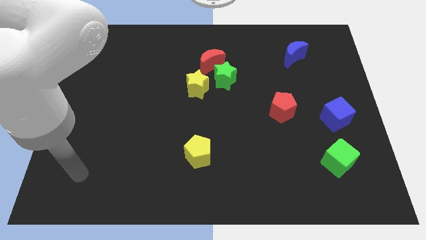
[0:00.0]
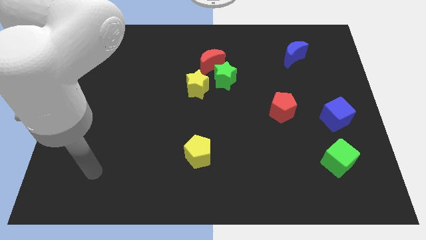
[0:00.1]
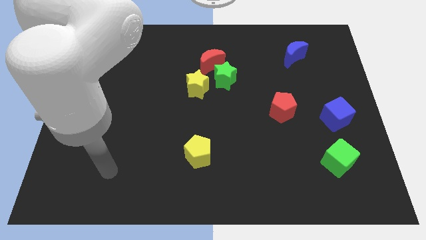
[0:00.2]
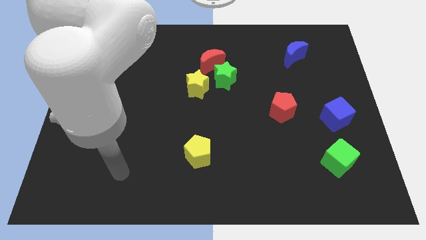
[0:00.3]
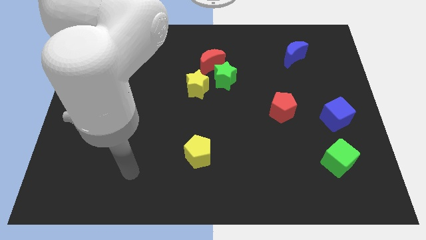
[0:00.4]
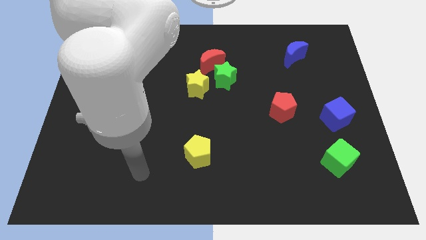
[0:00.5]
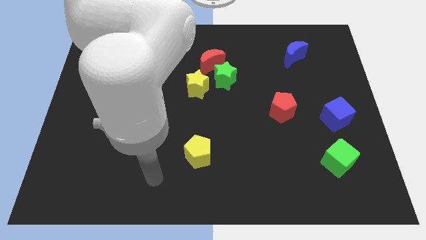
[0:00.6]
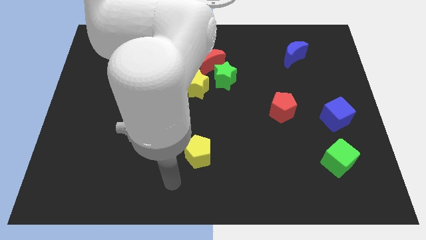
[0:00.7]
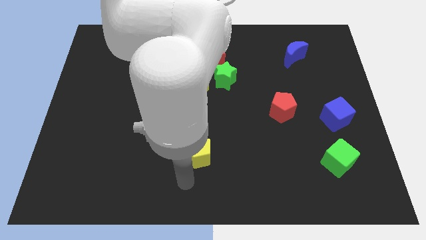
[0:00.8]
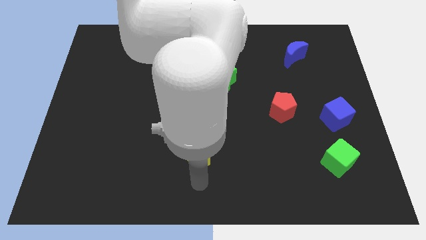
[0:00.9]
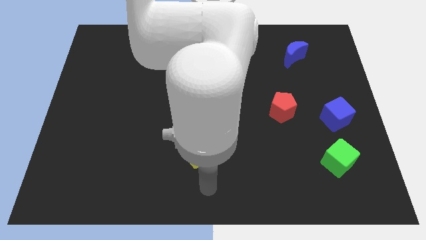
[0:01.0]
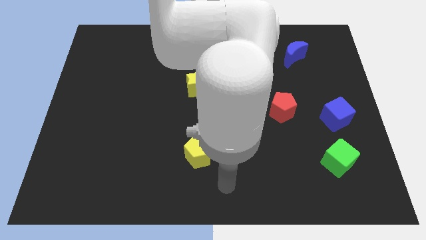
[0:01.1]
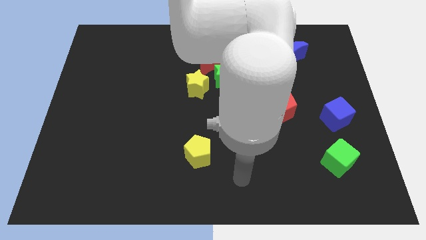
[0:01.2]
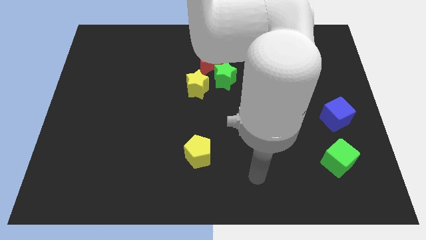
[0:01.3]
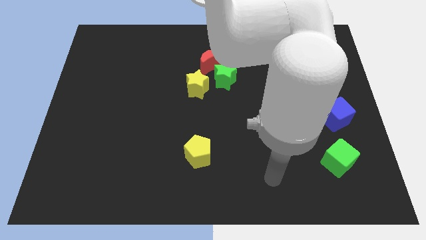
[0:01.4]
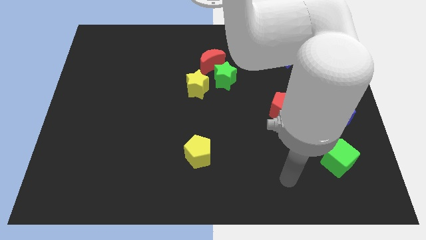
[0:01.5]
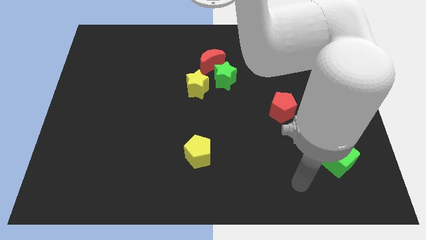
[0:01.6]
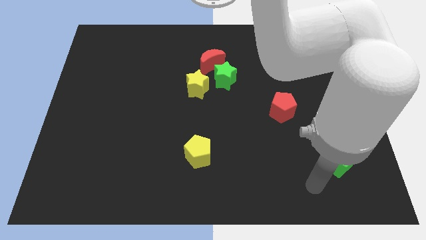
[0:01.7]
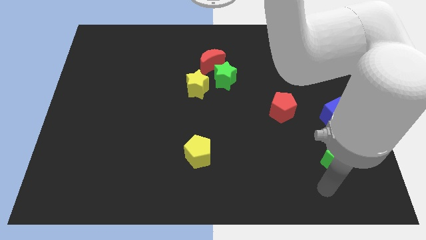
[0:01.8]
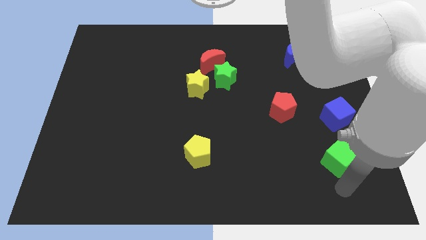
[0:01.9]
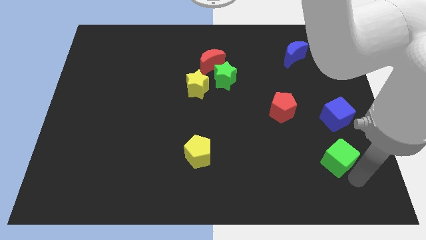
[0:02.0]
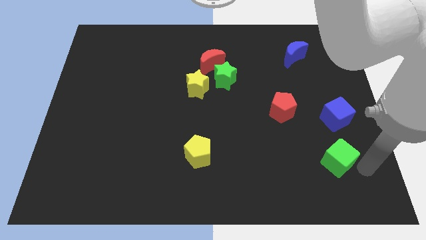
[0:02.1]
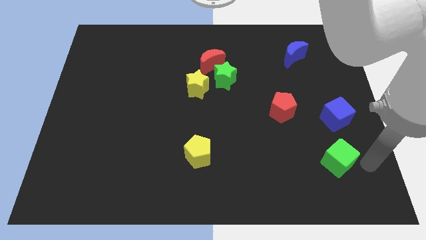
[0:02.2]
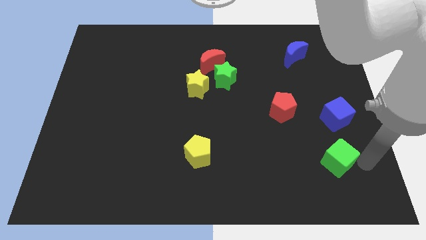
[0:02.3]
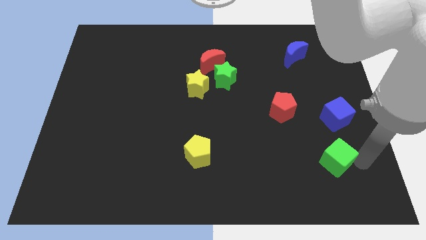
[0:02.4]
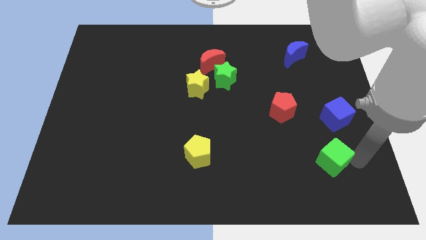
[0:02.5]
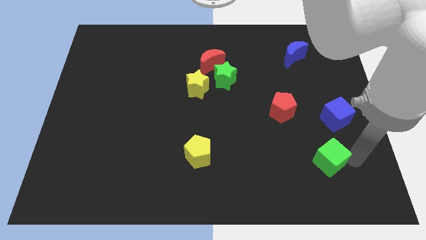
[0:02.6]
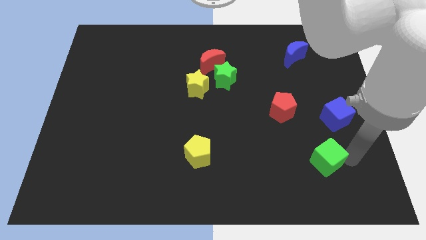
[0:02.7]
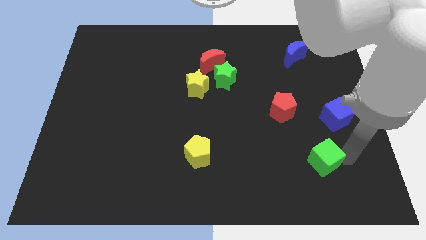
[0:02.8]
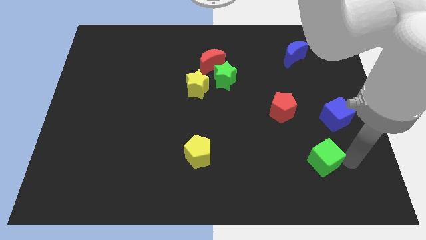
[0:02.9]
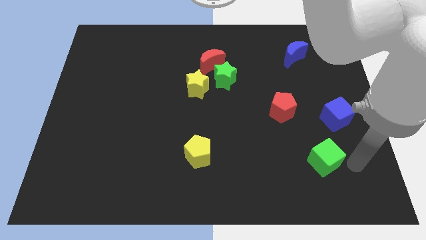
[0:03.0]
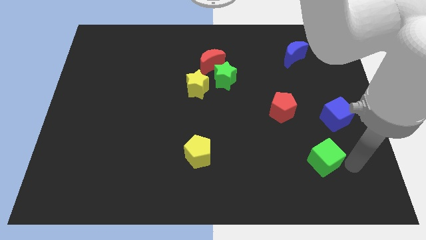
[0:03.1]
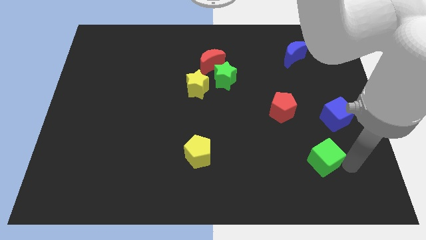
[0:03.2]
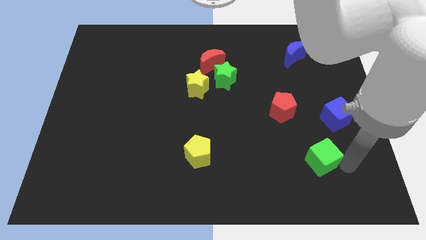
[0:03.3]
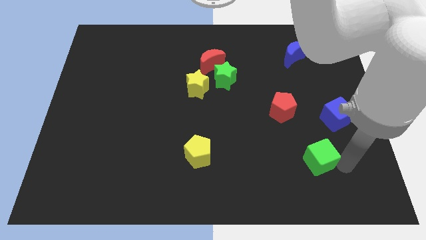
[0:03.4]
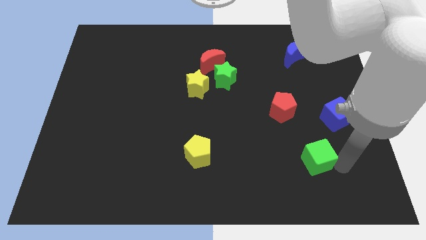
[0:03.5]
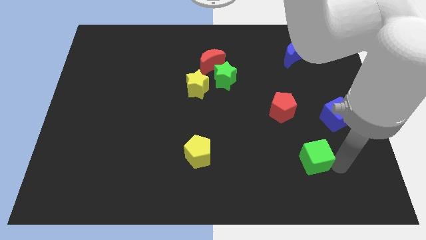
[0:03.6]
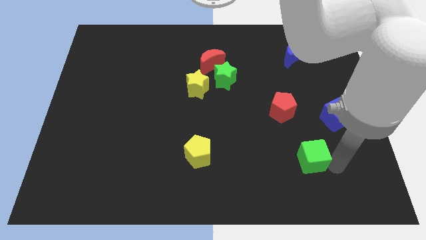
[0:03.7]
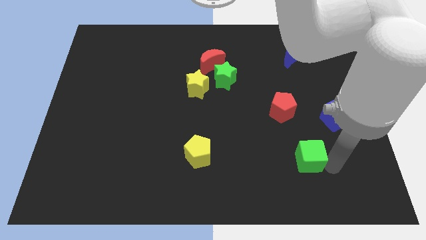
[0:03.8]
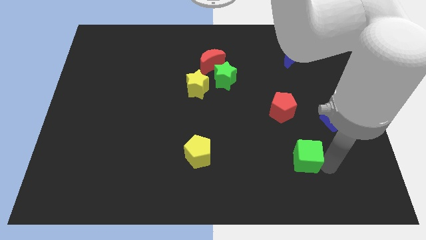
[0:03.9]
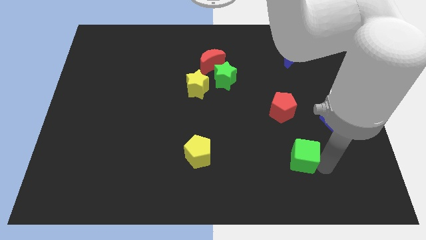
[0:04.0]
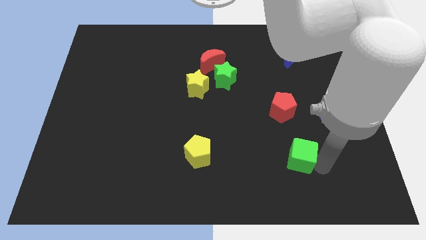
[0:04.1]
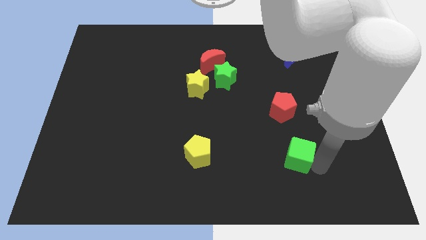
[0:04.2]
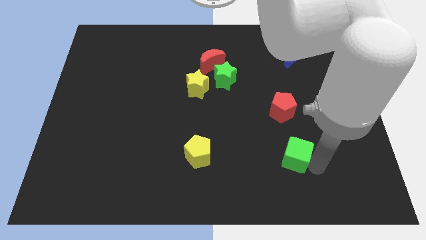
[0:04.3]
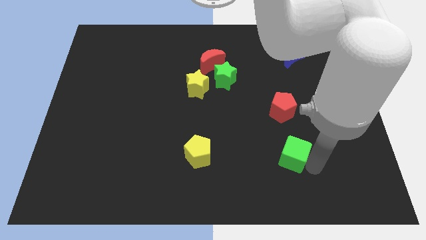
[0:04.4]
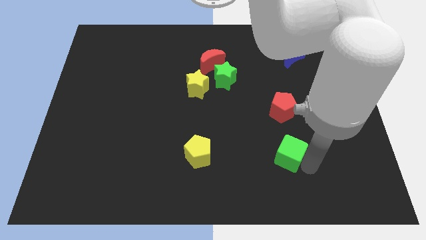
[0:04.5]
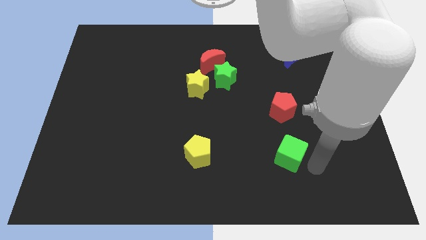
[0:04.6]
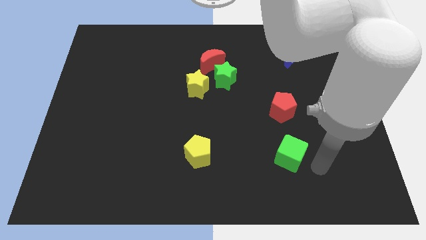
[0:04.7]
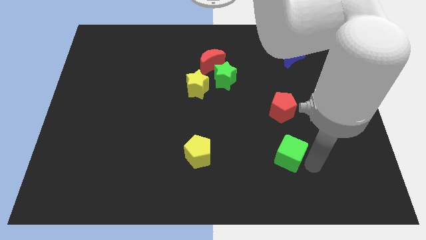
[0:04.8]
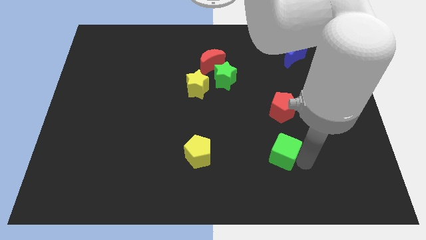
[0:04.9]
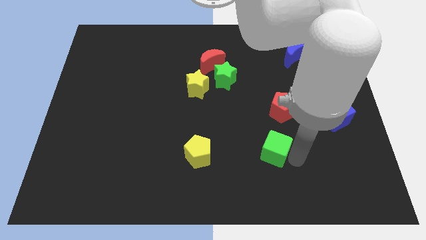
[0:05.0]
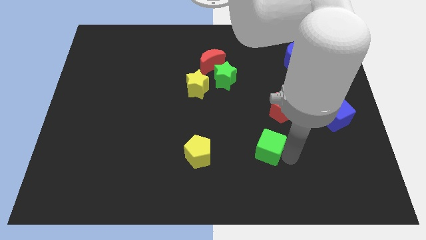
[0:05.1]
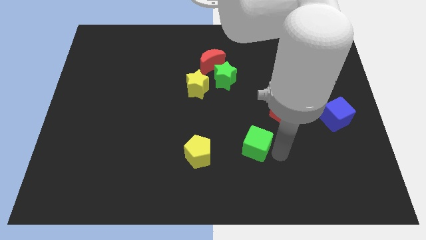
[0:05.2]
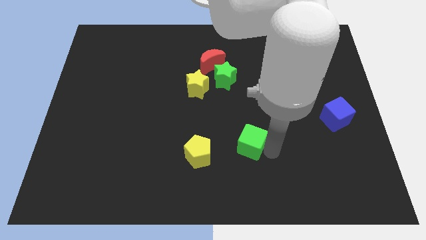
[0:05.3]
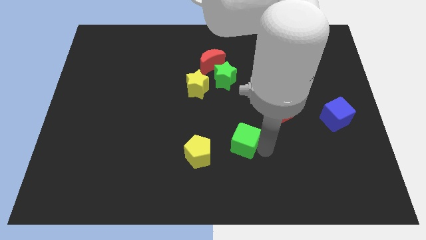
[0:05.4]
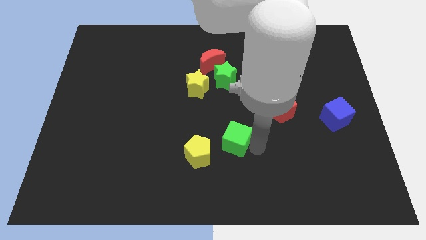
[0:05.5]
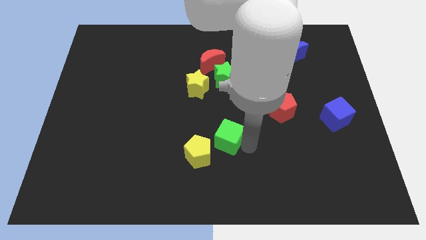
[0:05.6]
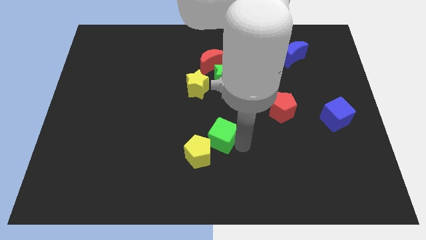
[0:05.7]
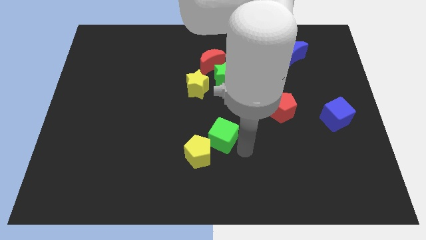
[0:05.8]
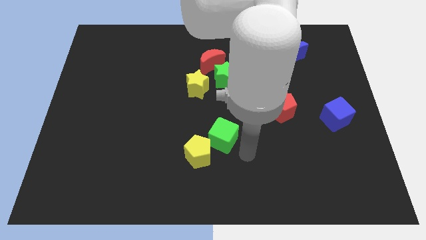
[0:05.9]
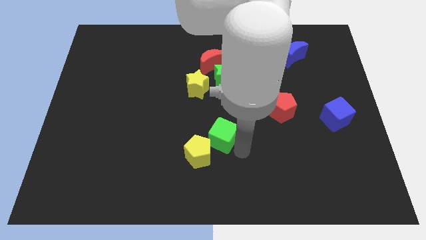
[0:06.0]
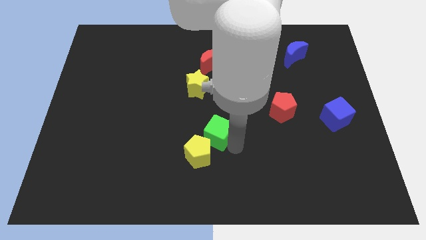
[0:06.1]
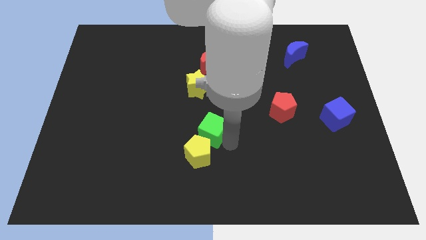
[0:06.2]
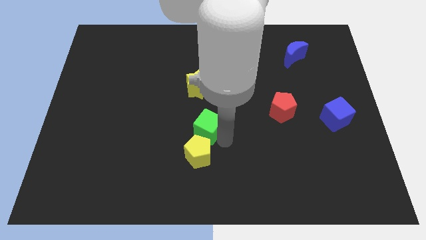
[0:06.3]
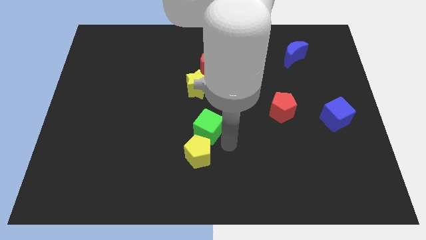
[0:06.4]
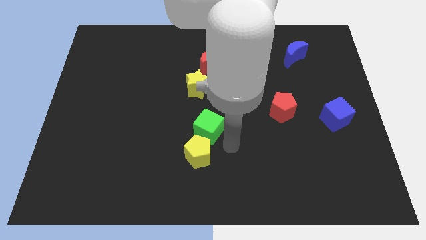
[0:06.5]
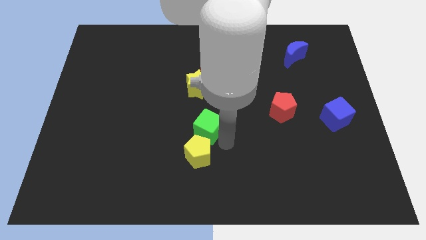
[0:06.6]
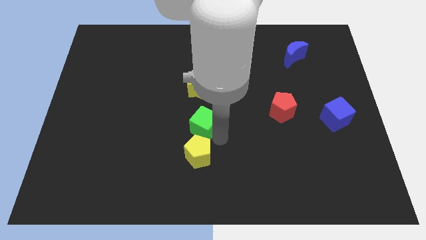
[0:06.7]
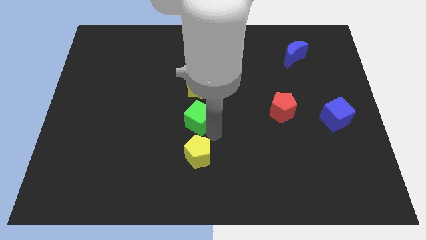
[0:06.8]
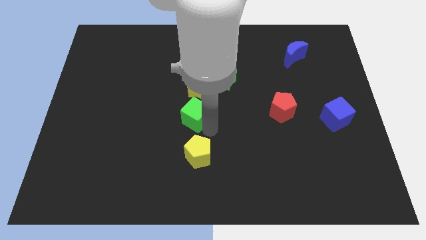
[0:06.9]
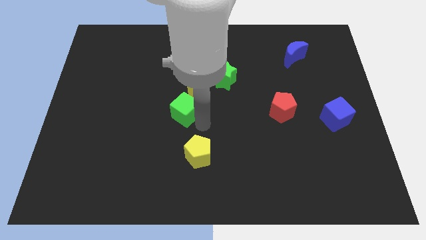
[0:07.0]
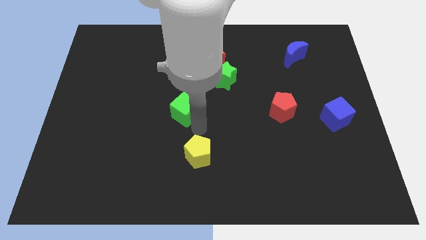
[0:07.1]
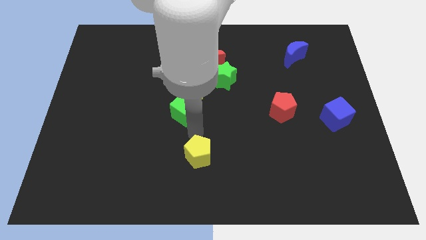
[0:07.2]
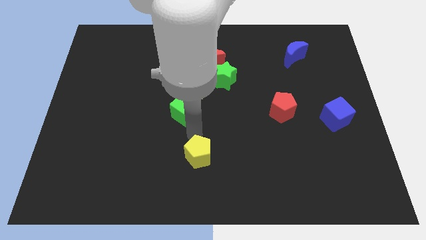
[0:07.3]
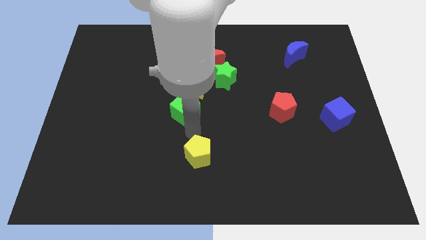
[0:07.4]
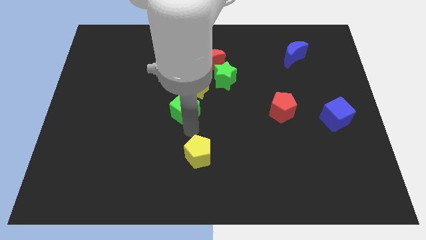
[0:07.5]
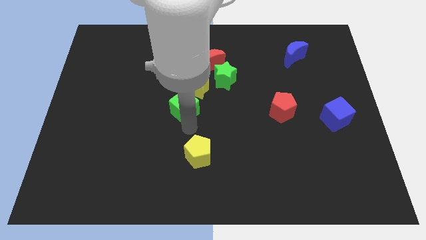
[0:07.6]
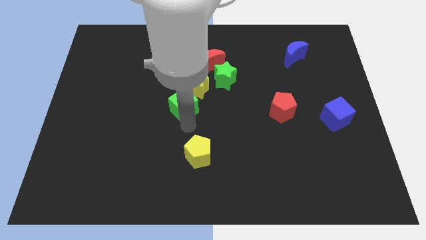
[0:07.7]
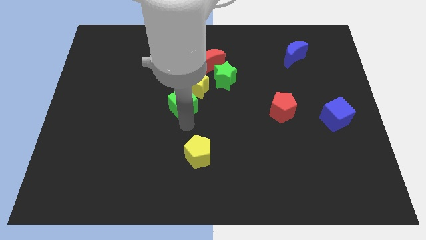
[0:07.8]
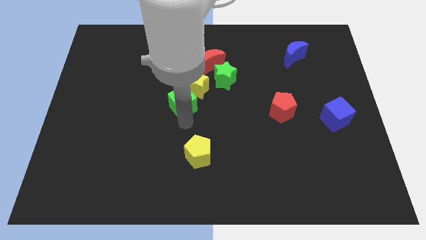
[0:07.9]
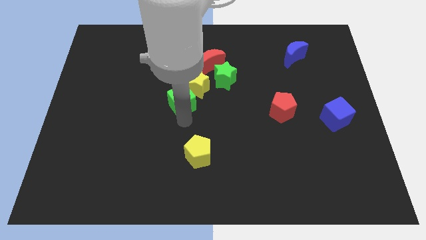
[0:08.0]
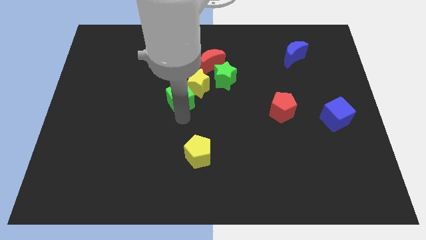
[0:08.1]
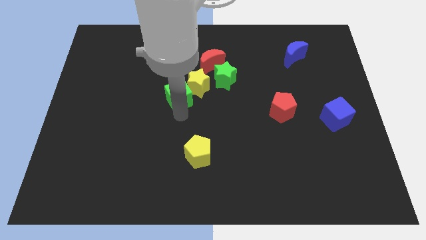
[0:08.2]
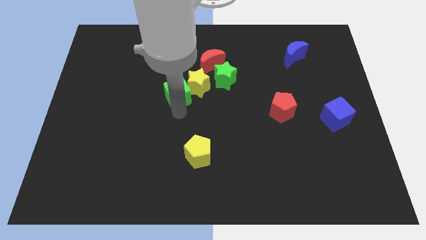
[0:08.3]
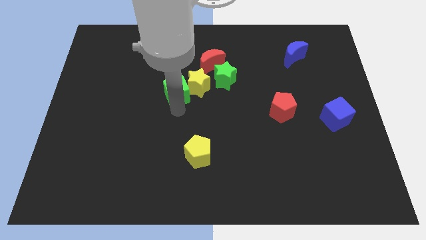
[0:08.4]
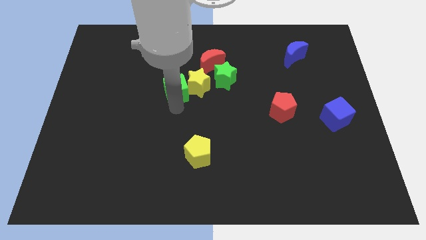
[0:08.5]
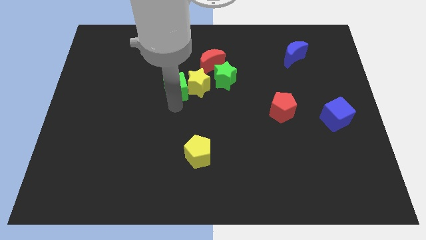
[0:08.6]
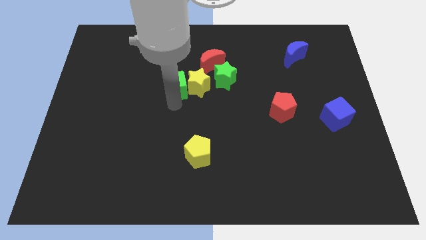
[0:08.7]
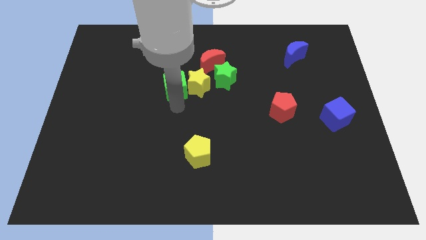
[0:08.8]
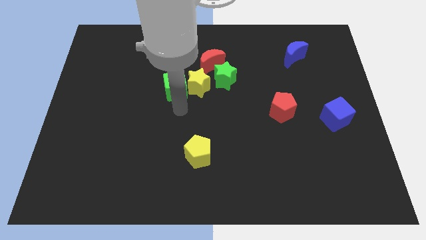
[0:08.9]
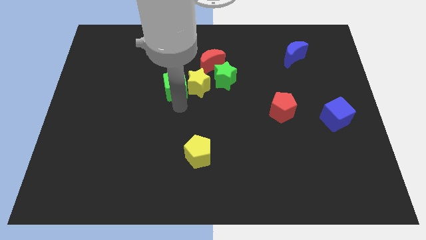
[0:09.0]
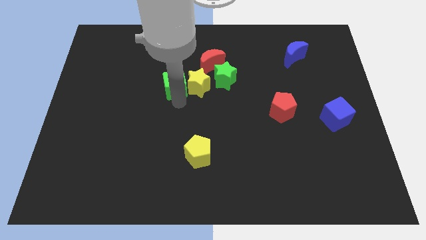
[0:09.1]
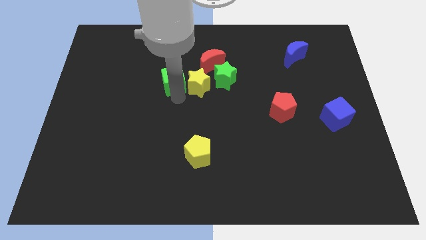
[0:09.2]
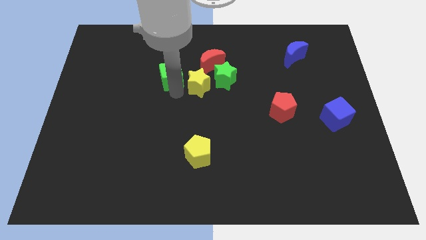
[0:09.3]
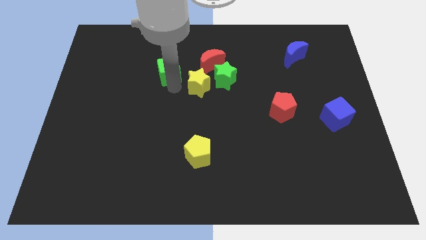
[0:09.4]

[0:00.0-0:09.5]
put the green cube to the left side of the red moon
